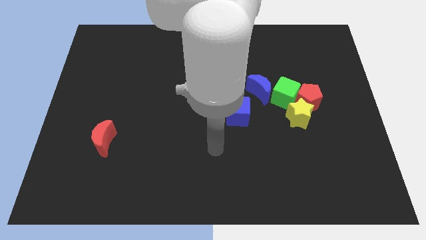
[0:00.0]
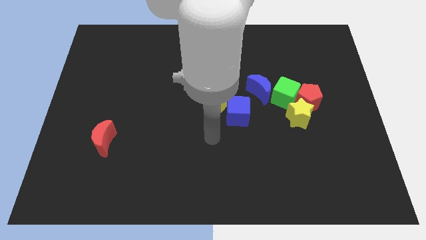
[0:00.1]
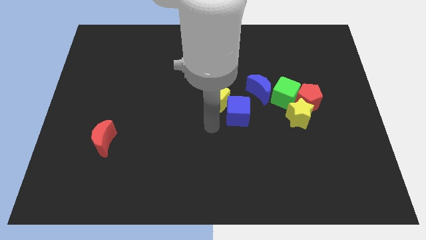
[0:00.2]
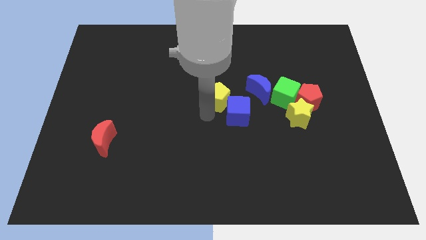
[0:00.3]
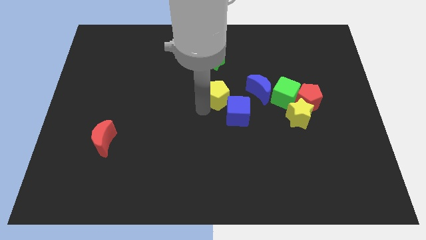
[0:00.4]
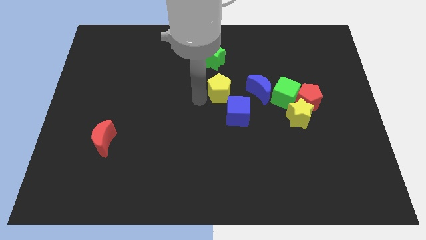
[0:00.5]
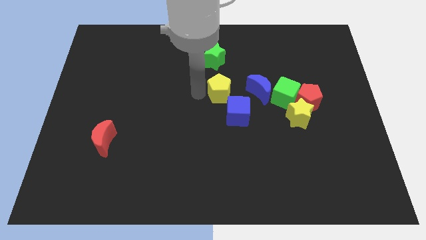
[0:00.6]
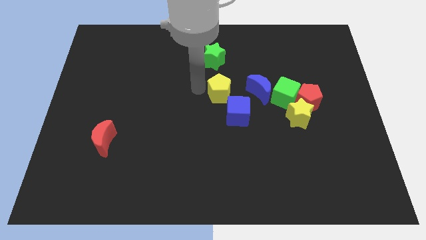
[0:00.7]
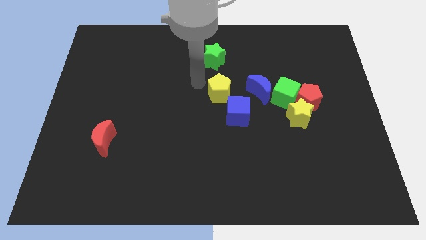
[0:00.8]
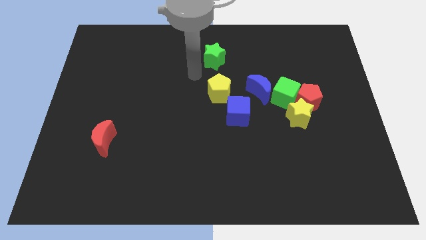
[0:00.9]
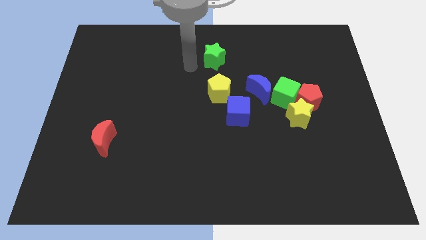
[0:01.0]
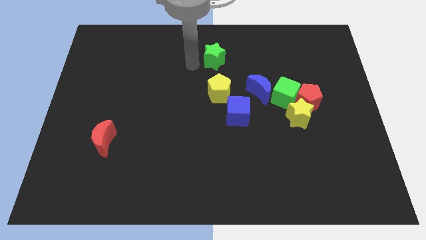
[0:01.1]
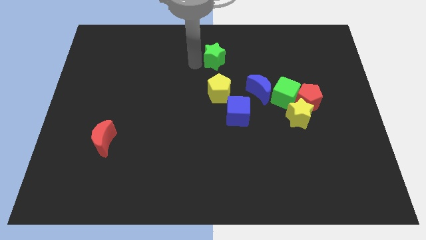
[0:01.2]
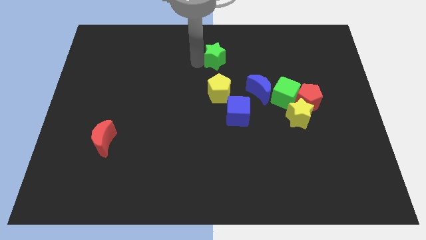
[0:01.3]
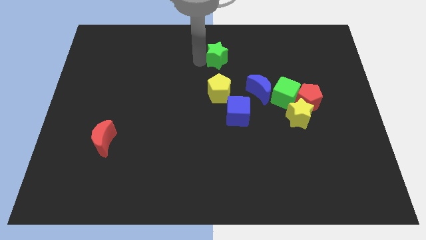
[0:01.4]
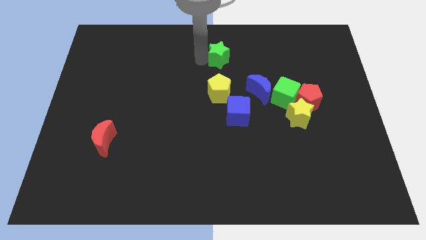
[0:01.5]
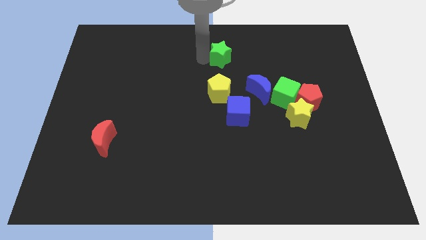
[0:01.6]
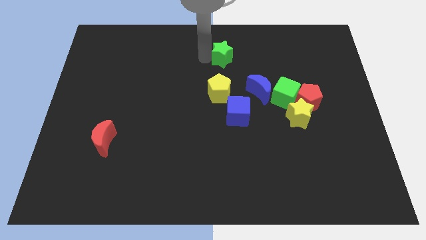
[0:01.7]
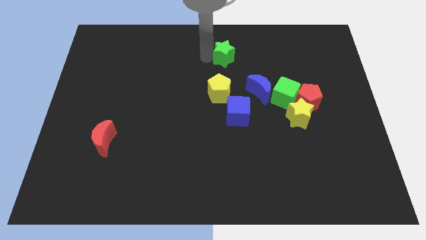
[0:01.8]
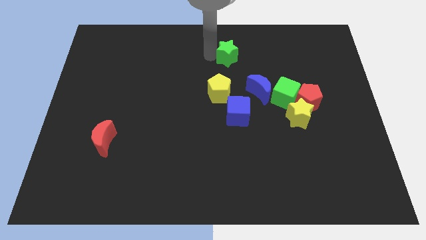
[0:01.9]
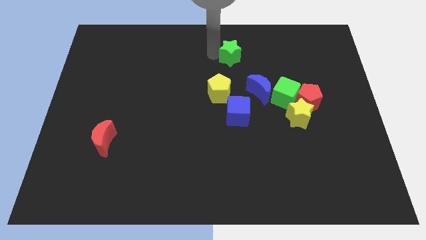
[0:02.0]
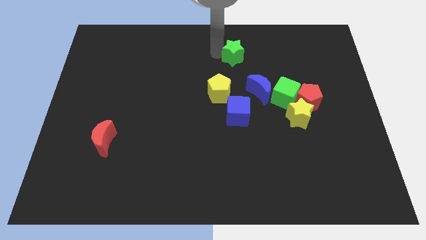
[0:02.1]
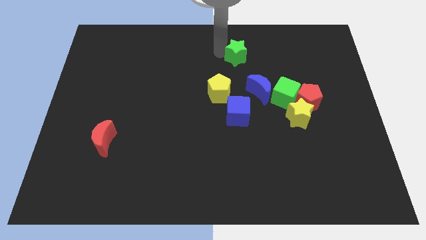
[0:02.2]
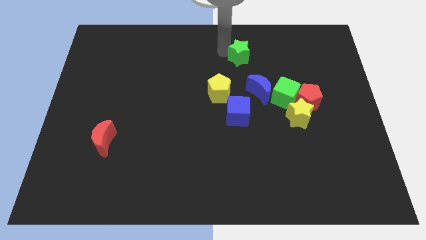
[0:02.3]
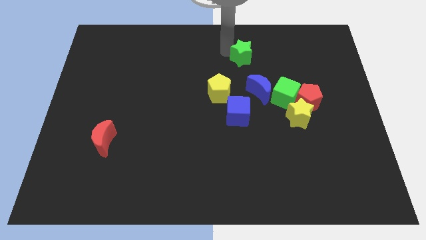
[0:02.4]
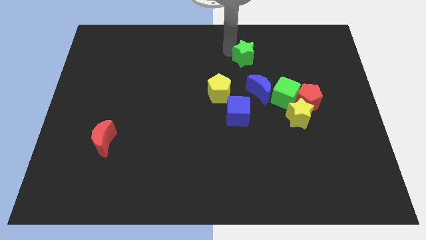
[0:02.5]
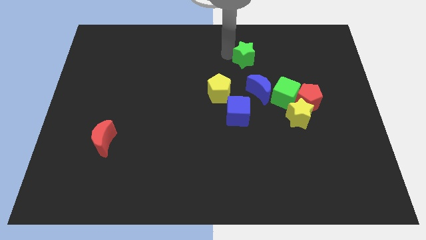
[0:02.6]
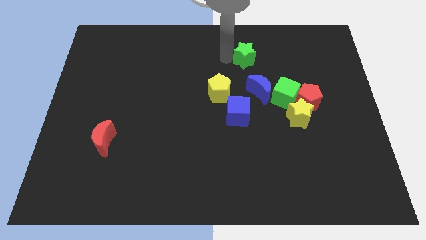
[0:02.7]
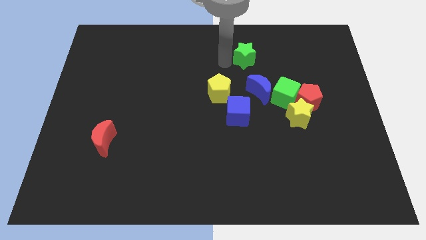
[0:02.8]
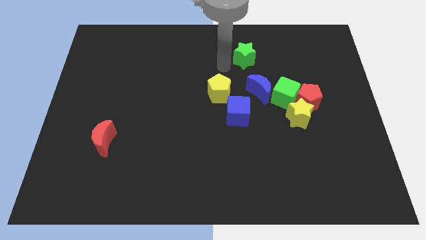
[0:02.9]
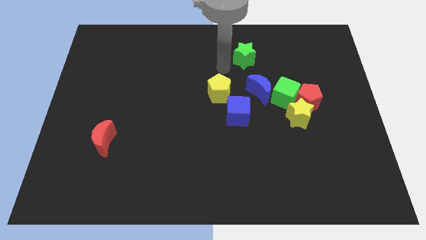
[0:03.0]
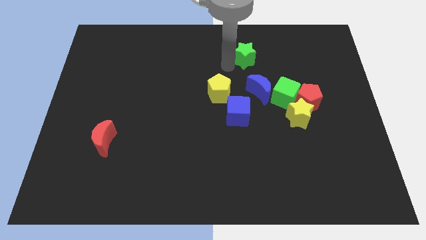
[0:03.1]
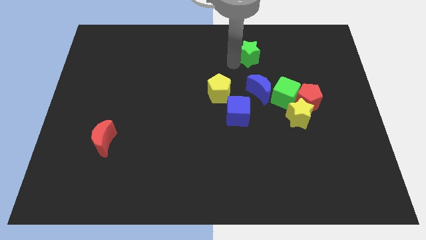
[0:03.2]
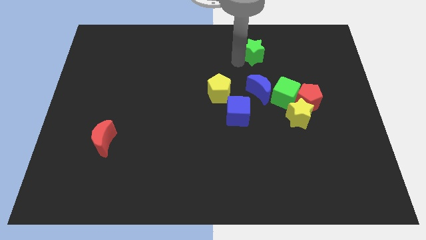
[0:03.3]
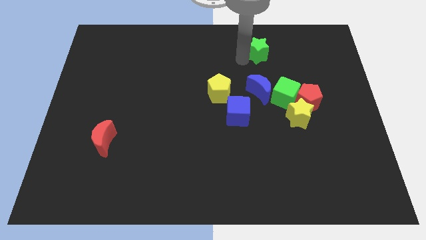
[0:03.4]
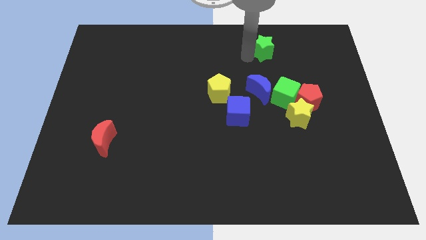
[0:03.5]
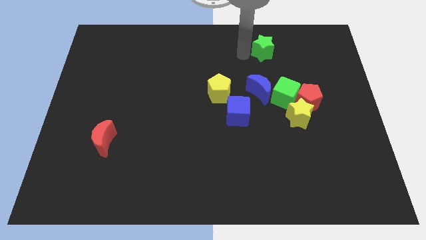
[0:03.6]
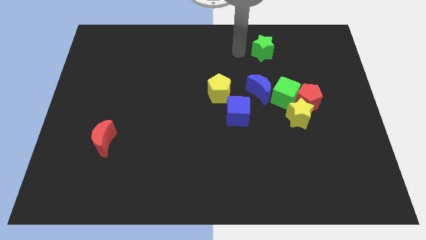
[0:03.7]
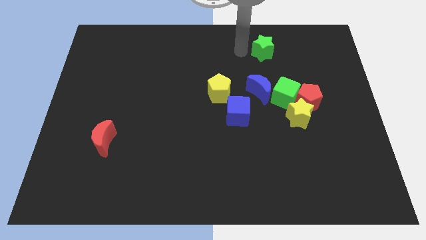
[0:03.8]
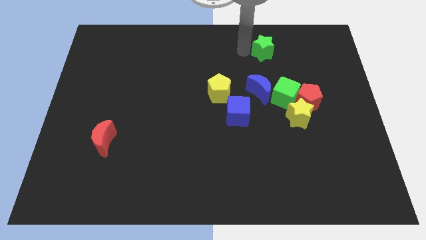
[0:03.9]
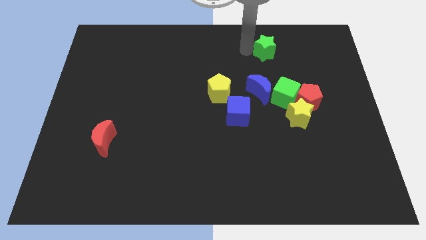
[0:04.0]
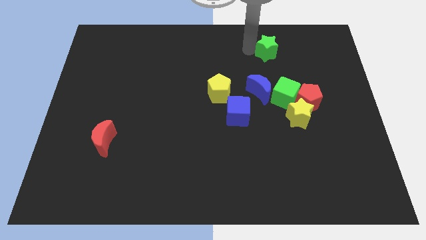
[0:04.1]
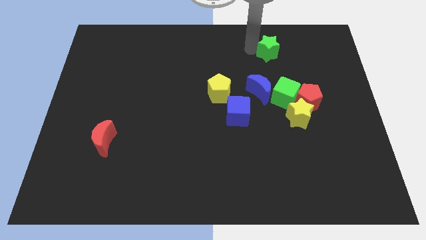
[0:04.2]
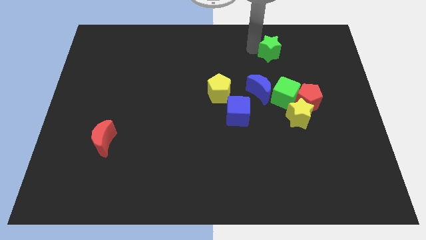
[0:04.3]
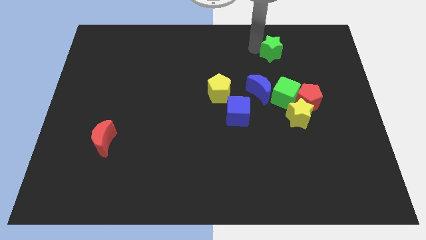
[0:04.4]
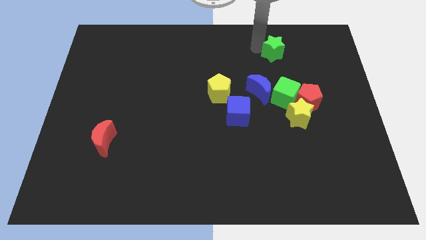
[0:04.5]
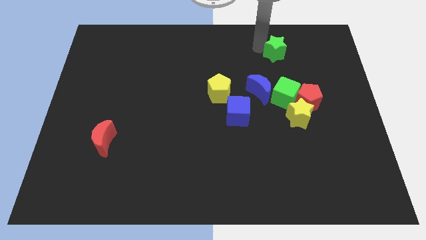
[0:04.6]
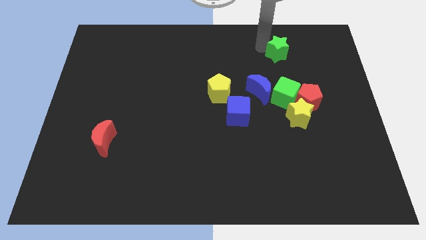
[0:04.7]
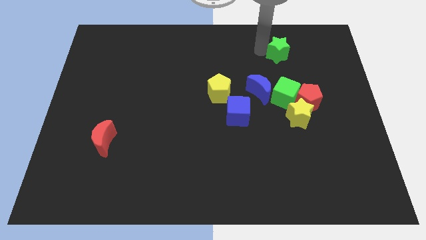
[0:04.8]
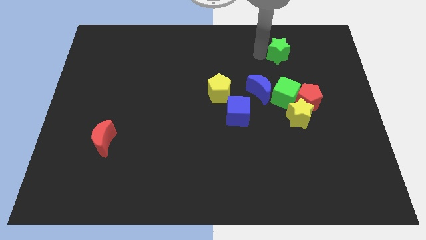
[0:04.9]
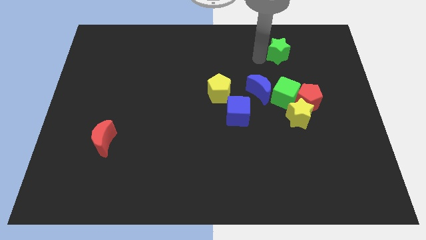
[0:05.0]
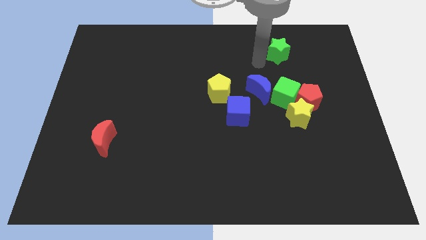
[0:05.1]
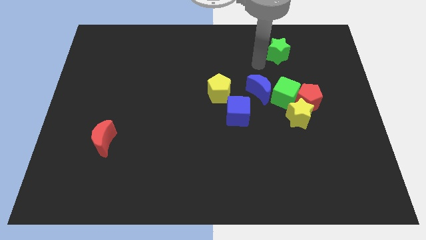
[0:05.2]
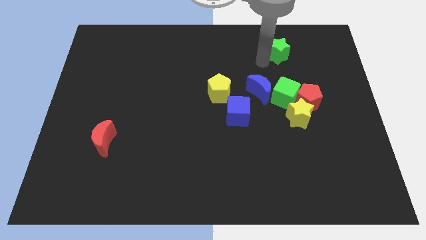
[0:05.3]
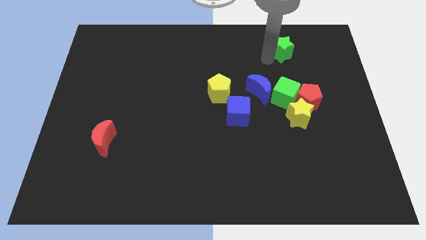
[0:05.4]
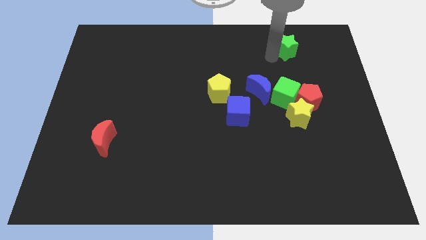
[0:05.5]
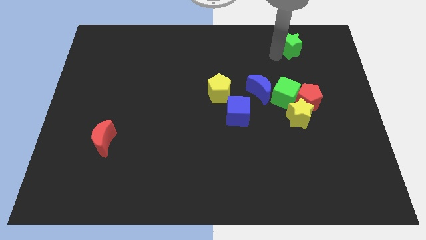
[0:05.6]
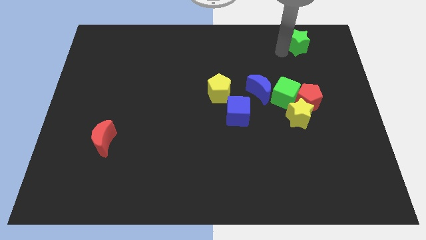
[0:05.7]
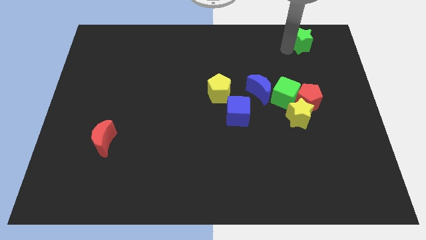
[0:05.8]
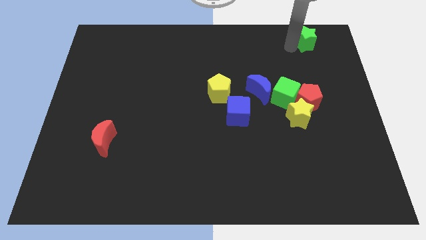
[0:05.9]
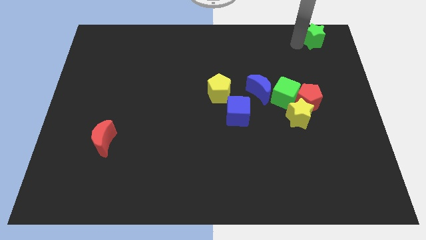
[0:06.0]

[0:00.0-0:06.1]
slide the green star to the upper right corner
